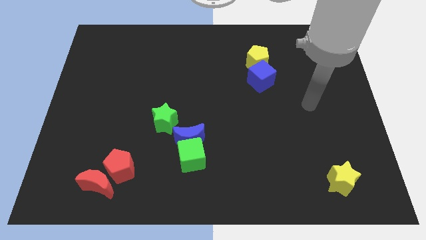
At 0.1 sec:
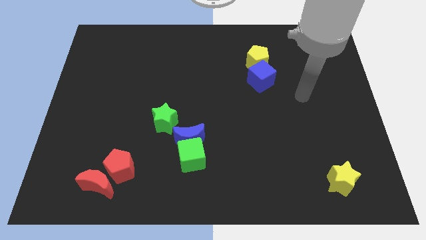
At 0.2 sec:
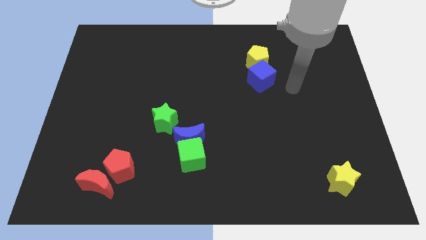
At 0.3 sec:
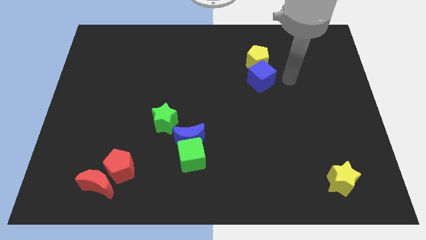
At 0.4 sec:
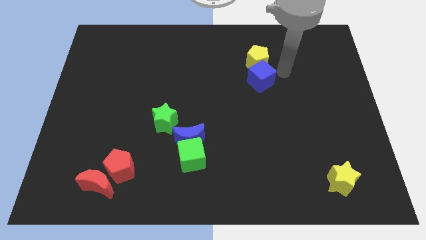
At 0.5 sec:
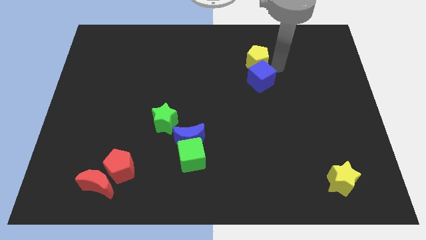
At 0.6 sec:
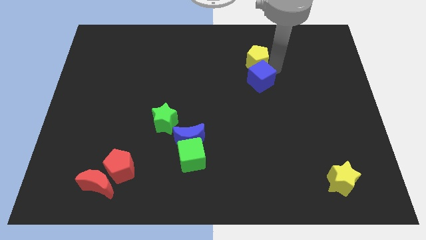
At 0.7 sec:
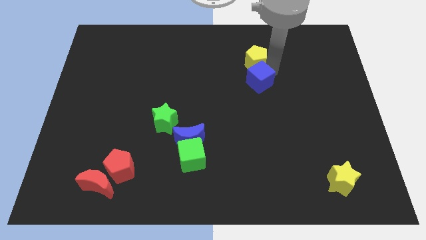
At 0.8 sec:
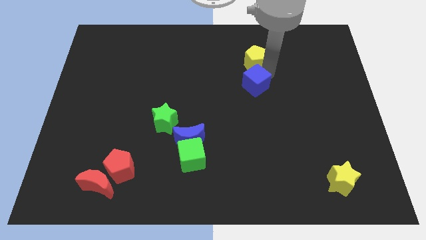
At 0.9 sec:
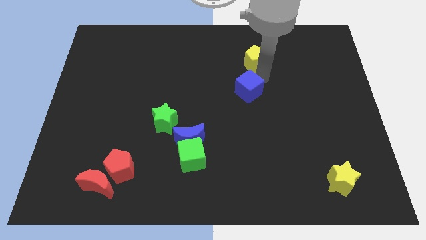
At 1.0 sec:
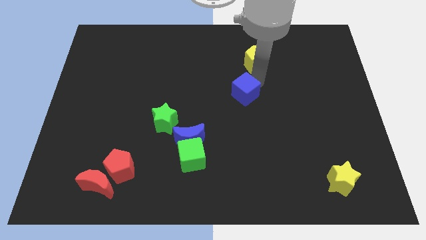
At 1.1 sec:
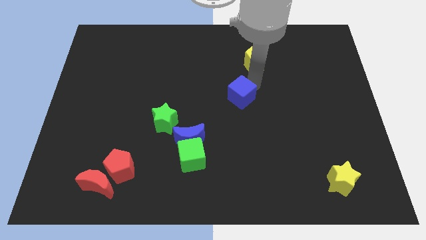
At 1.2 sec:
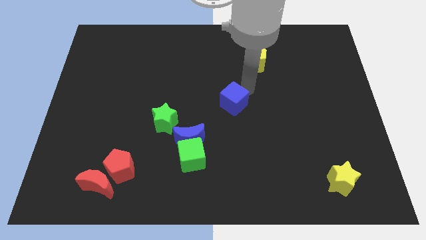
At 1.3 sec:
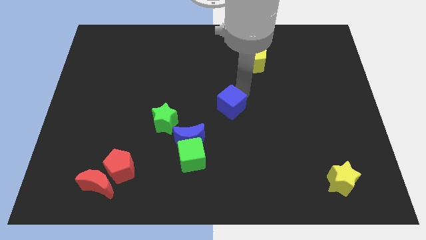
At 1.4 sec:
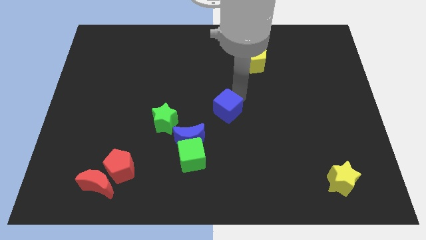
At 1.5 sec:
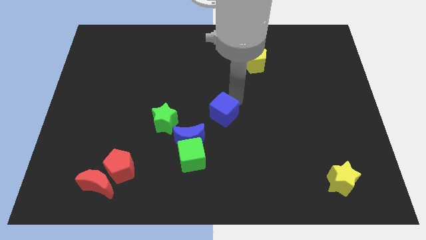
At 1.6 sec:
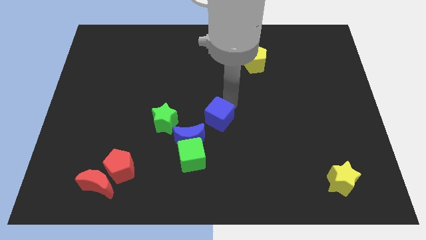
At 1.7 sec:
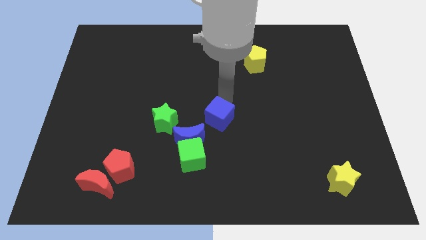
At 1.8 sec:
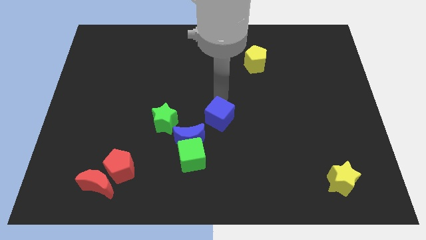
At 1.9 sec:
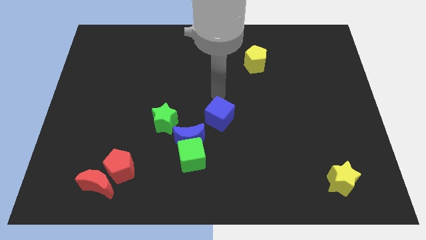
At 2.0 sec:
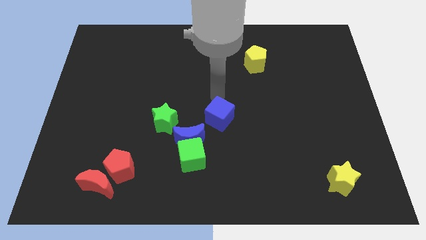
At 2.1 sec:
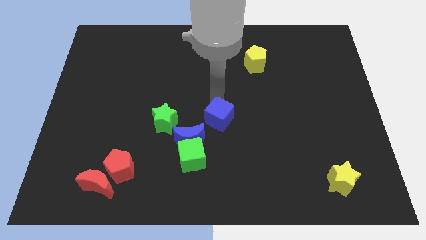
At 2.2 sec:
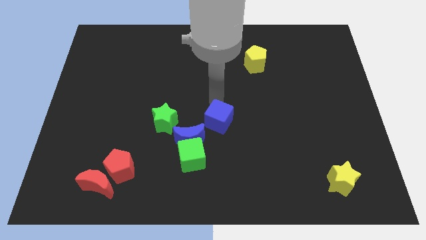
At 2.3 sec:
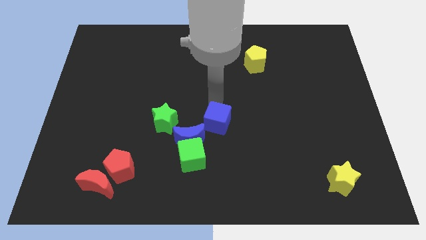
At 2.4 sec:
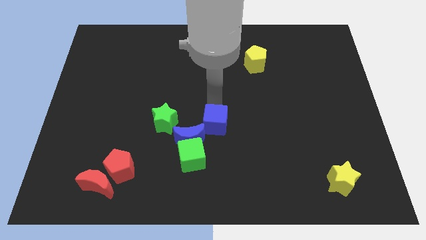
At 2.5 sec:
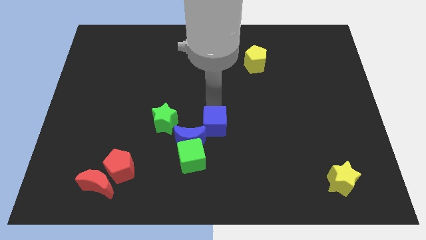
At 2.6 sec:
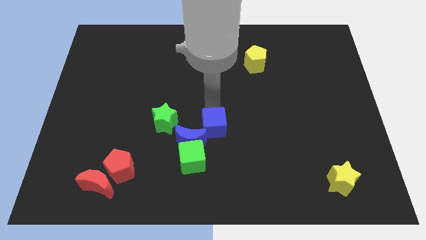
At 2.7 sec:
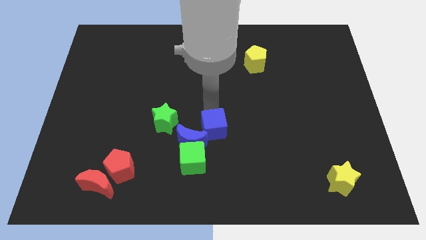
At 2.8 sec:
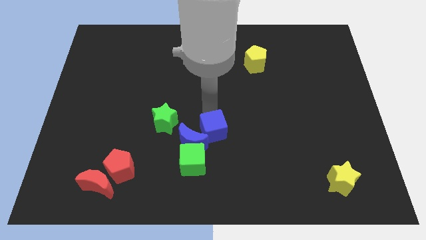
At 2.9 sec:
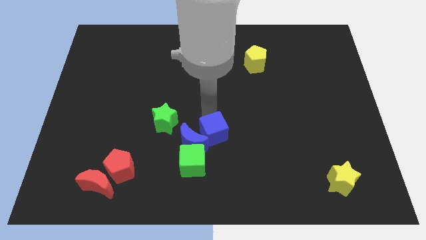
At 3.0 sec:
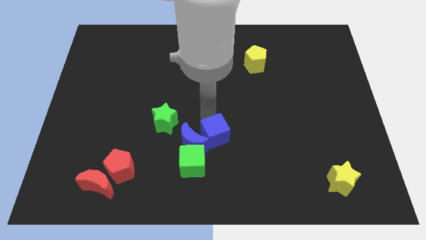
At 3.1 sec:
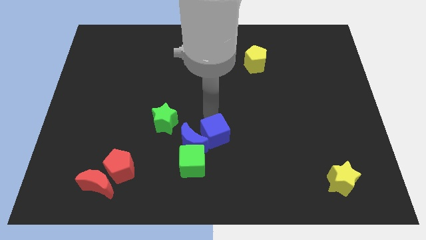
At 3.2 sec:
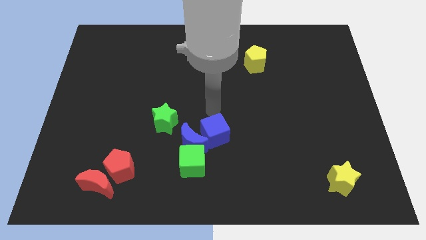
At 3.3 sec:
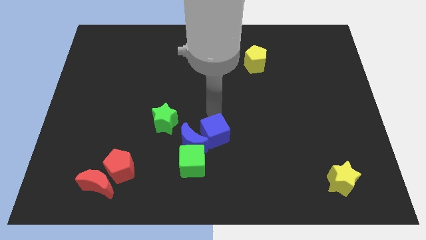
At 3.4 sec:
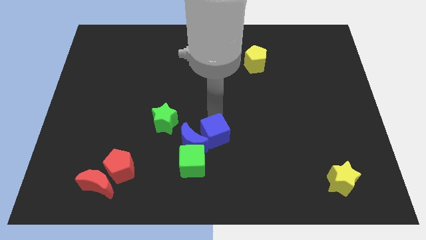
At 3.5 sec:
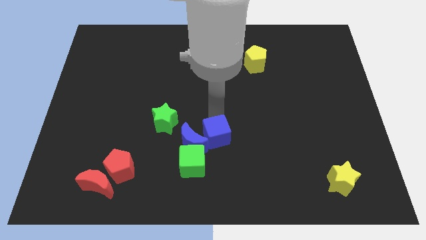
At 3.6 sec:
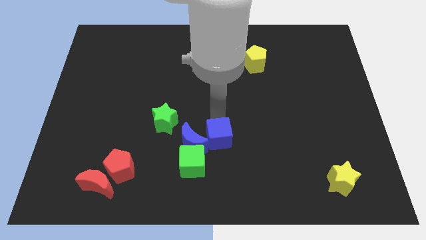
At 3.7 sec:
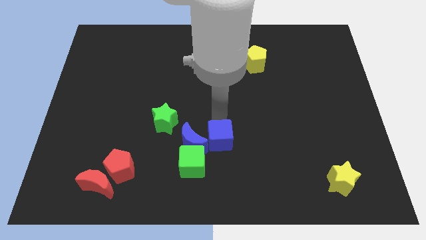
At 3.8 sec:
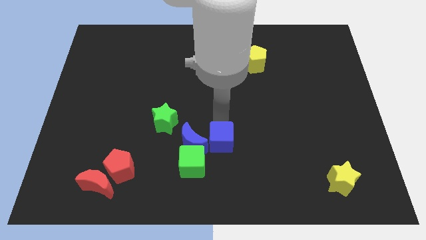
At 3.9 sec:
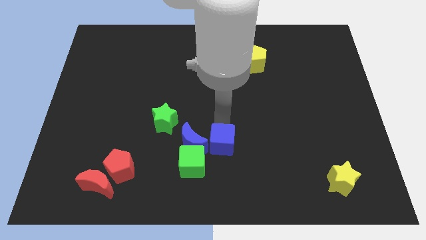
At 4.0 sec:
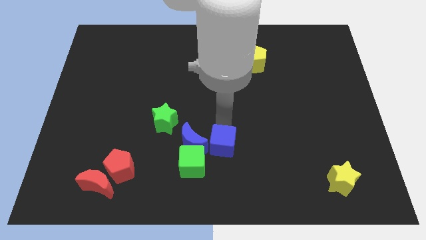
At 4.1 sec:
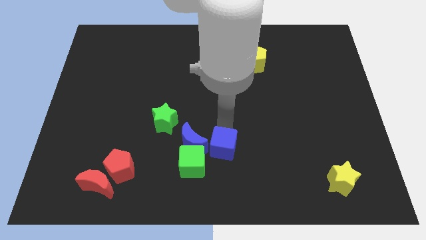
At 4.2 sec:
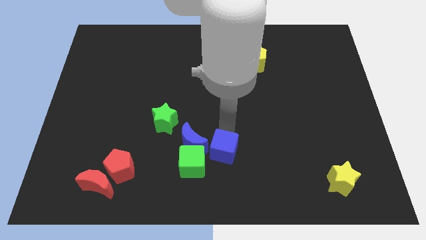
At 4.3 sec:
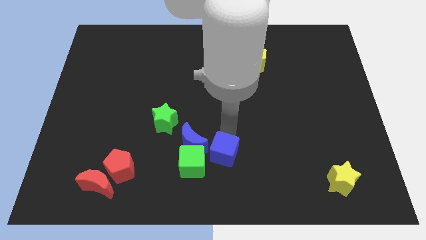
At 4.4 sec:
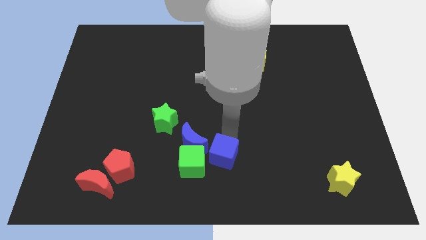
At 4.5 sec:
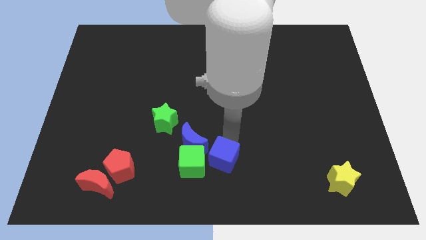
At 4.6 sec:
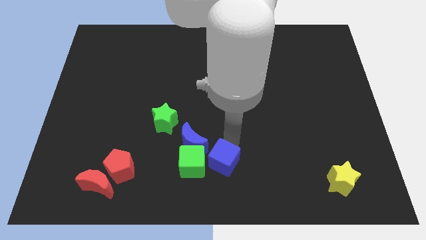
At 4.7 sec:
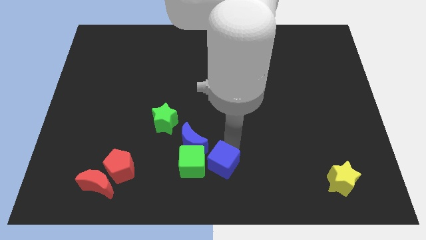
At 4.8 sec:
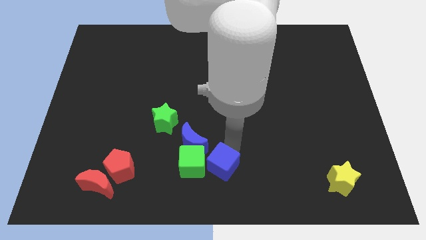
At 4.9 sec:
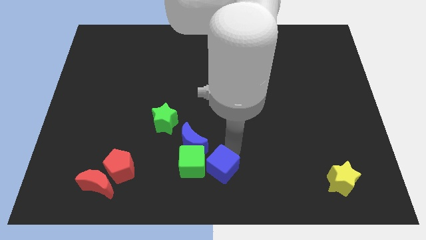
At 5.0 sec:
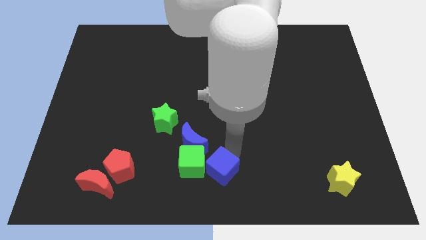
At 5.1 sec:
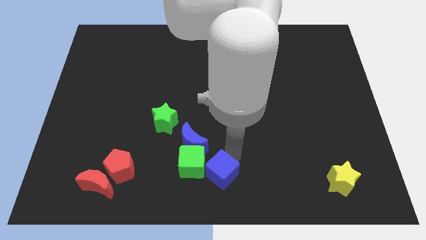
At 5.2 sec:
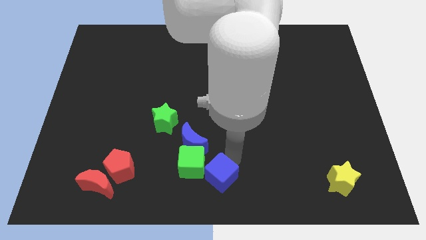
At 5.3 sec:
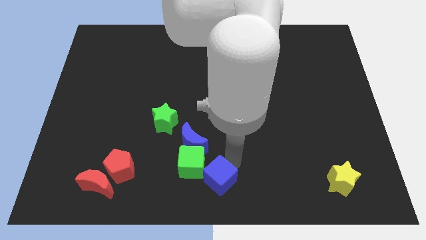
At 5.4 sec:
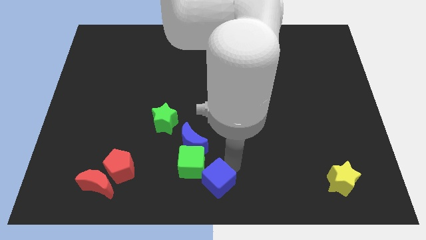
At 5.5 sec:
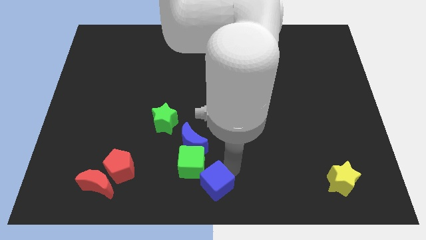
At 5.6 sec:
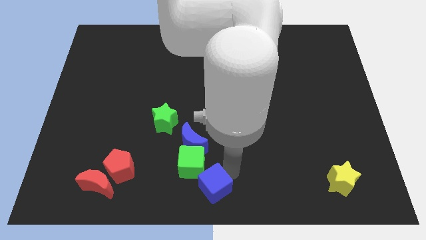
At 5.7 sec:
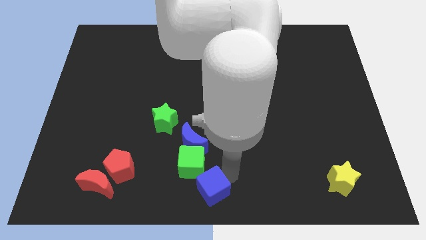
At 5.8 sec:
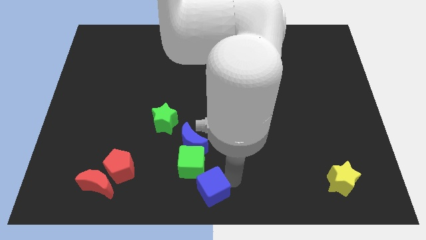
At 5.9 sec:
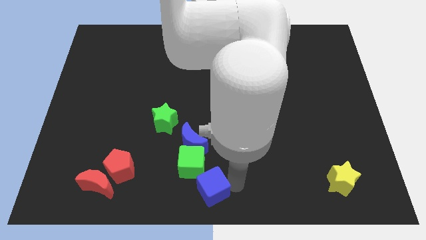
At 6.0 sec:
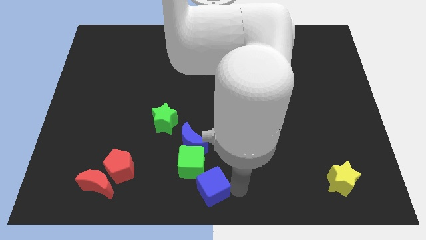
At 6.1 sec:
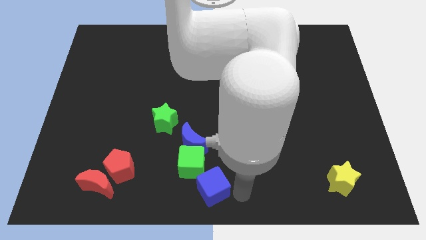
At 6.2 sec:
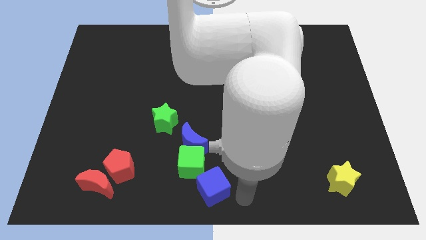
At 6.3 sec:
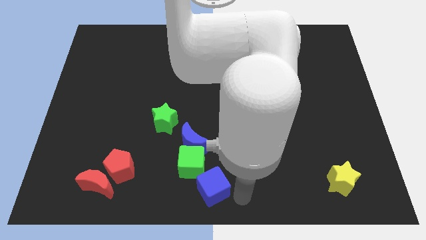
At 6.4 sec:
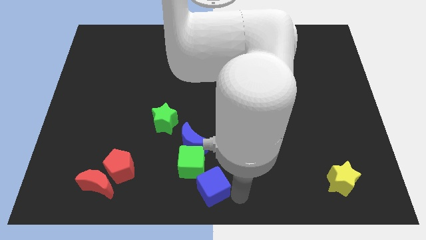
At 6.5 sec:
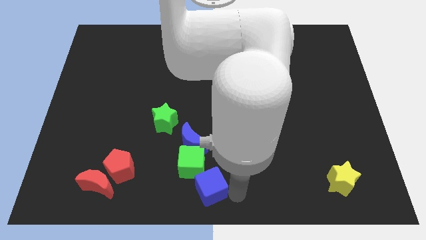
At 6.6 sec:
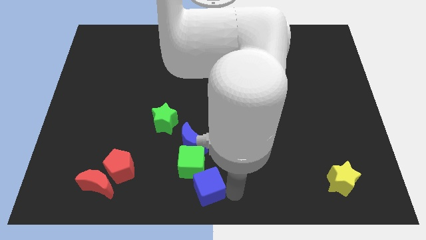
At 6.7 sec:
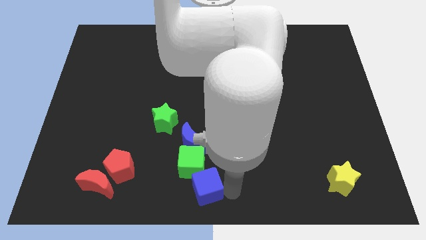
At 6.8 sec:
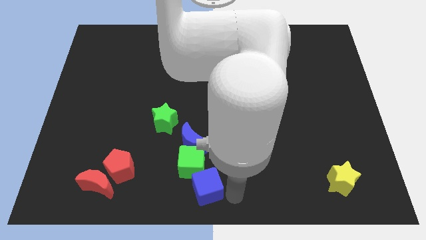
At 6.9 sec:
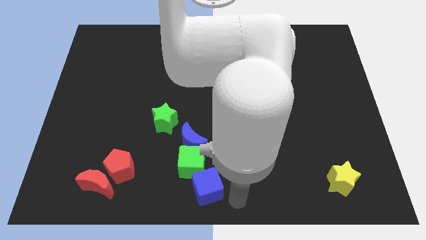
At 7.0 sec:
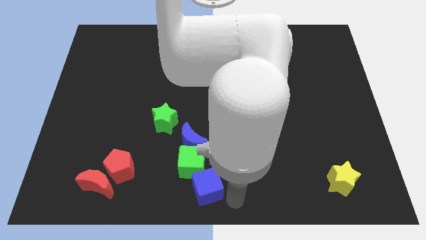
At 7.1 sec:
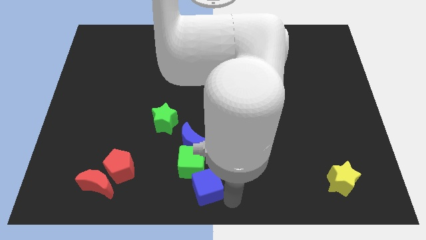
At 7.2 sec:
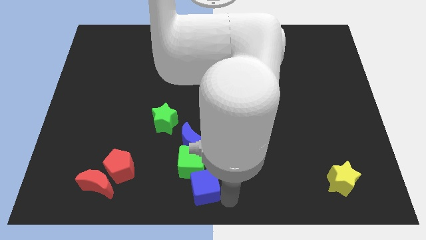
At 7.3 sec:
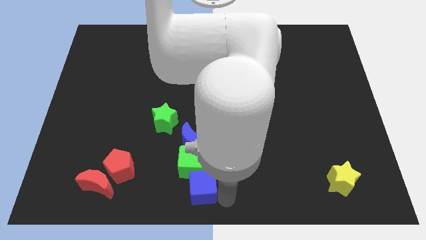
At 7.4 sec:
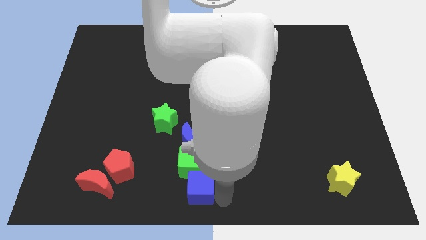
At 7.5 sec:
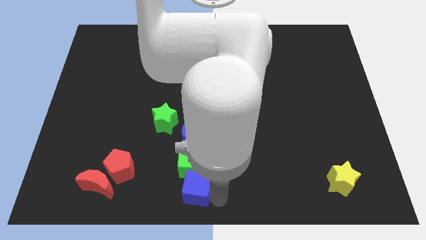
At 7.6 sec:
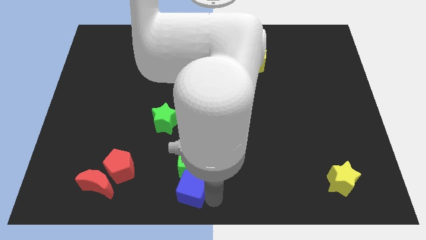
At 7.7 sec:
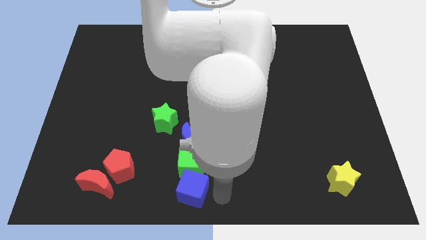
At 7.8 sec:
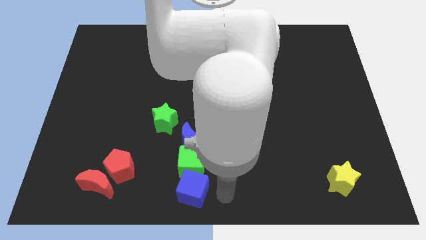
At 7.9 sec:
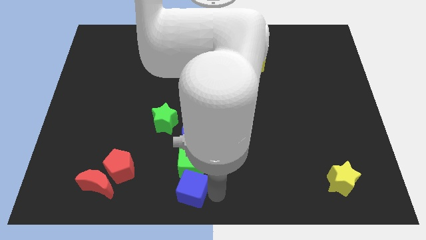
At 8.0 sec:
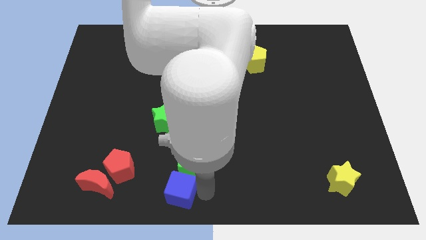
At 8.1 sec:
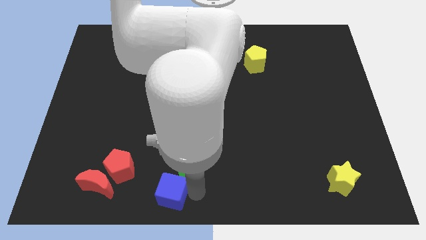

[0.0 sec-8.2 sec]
push the blue cube to the right side of the red moon
